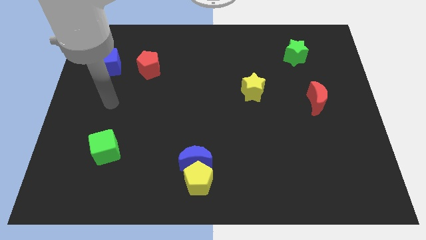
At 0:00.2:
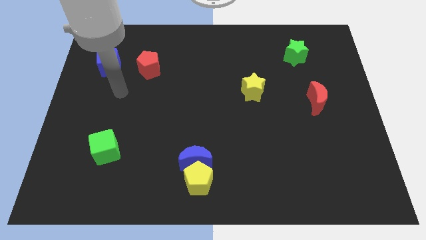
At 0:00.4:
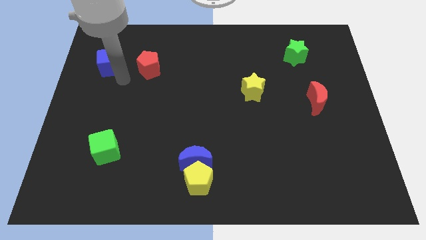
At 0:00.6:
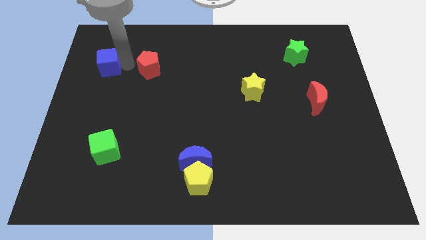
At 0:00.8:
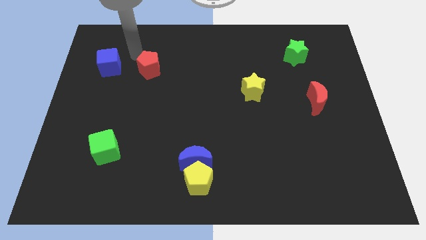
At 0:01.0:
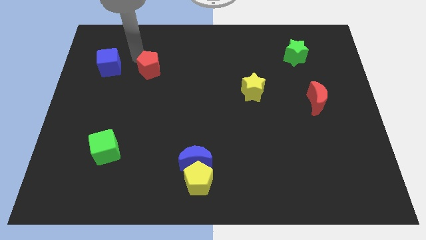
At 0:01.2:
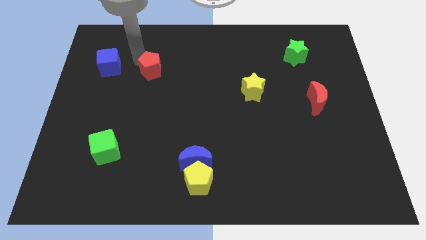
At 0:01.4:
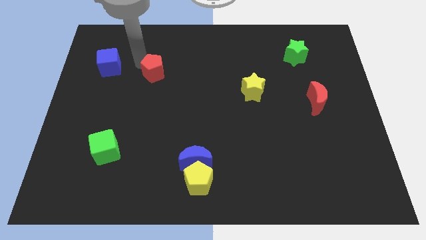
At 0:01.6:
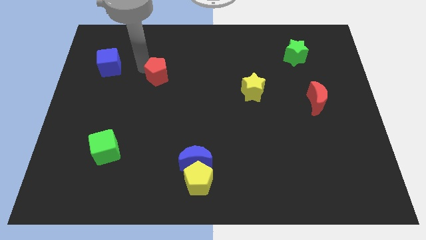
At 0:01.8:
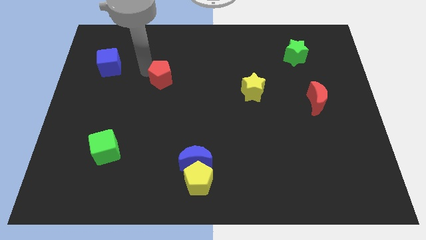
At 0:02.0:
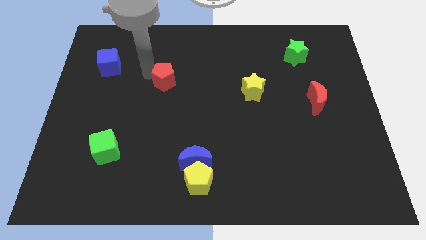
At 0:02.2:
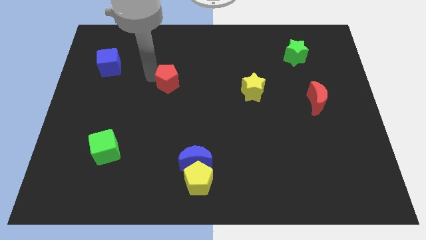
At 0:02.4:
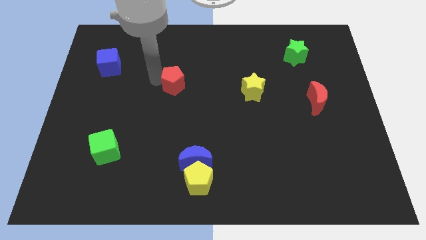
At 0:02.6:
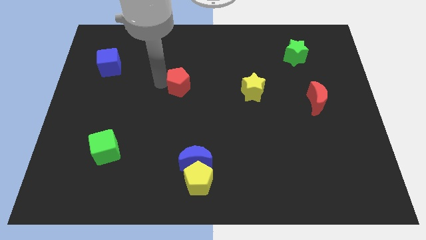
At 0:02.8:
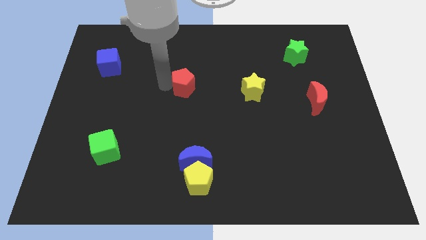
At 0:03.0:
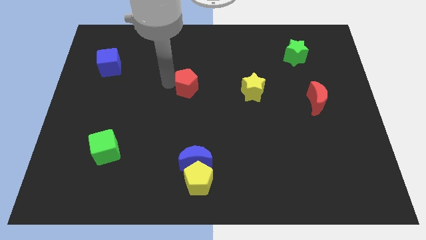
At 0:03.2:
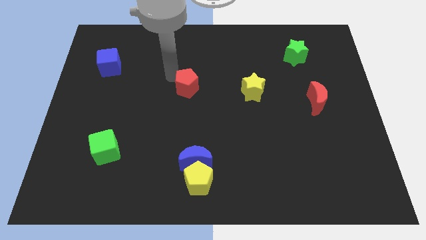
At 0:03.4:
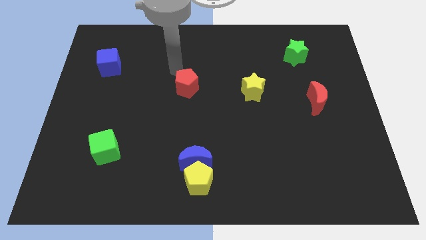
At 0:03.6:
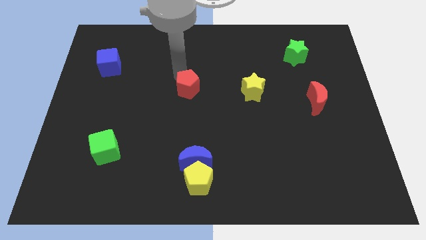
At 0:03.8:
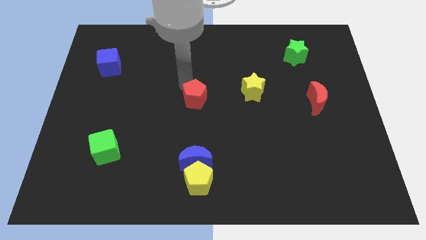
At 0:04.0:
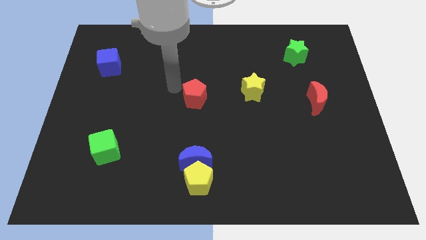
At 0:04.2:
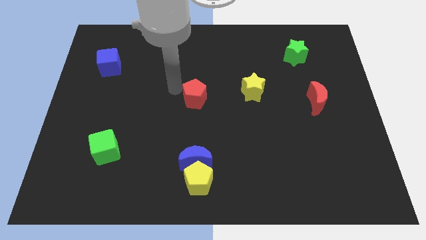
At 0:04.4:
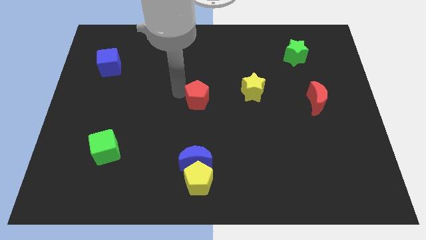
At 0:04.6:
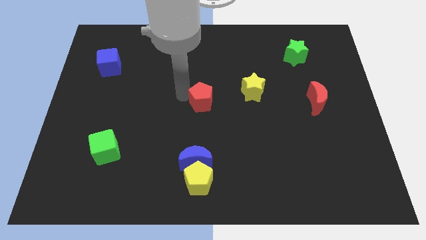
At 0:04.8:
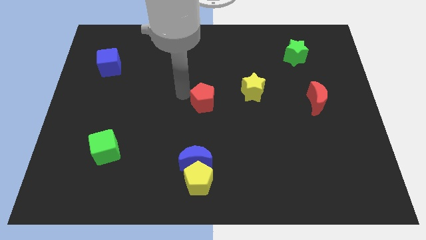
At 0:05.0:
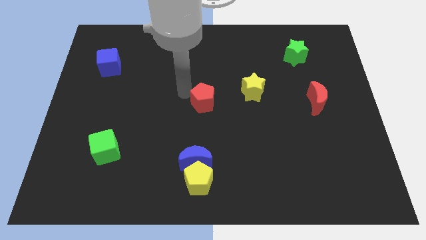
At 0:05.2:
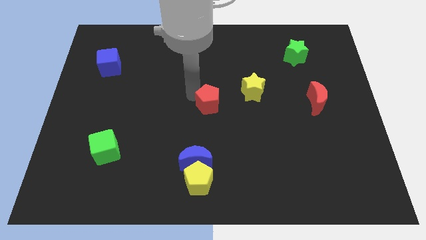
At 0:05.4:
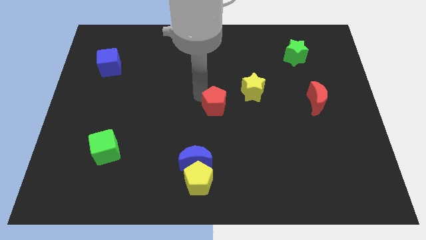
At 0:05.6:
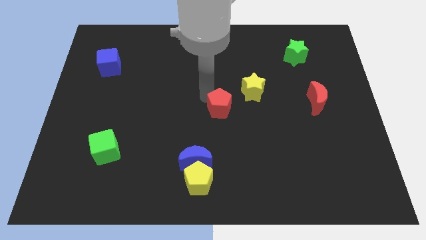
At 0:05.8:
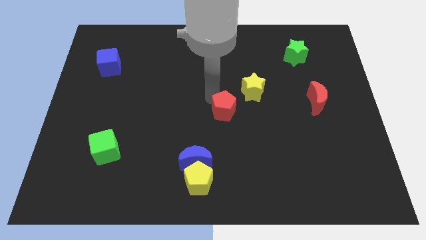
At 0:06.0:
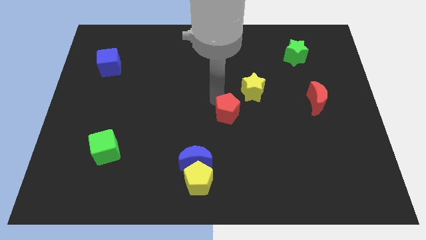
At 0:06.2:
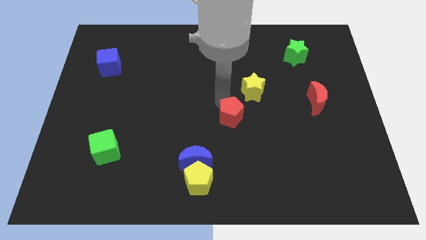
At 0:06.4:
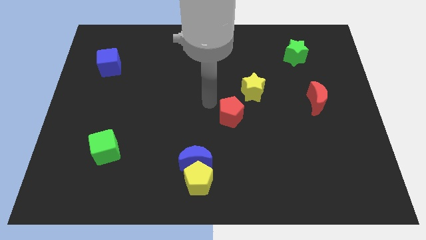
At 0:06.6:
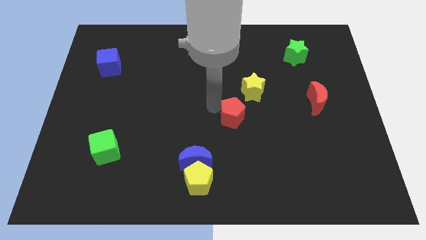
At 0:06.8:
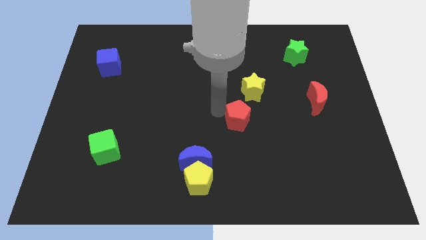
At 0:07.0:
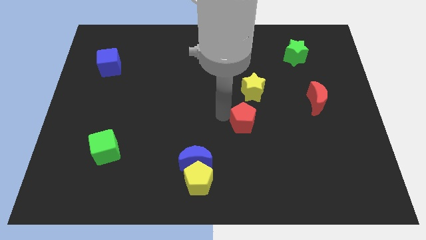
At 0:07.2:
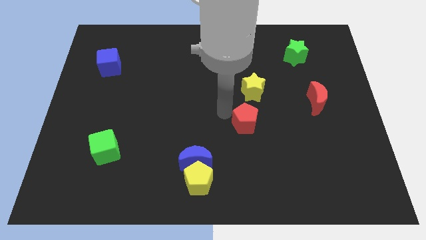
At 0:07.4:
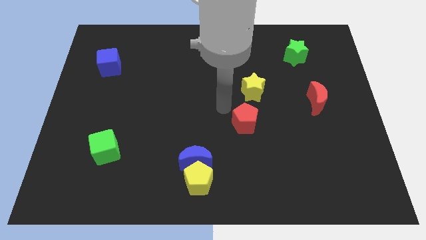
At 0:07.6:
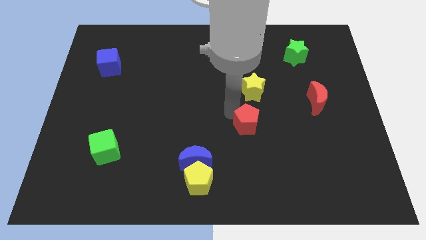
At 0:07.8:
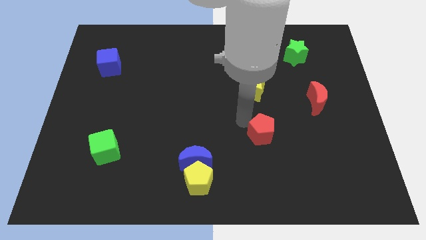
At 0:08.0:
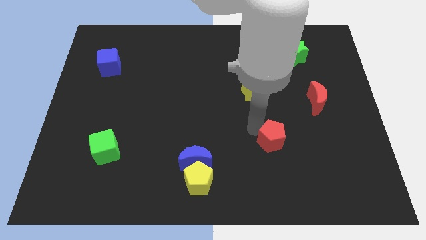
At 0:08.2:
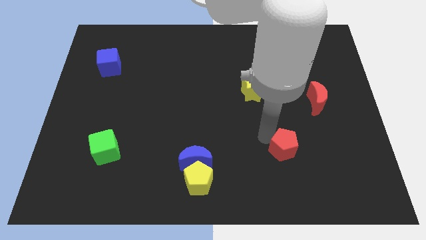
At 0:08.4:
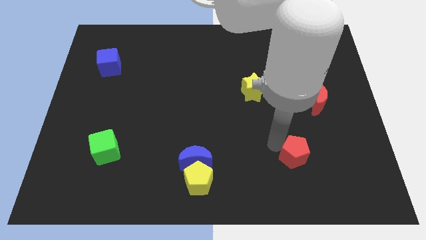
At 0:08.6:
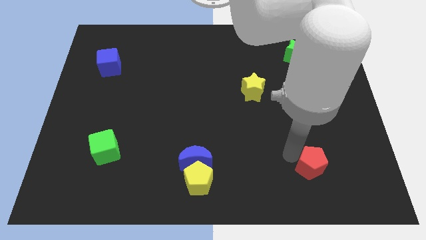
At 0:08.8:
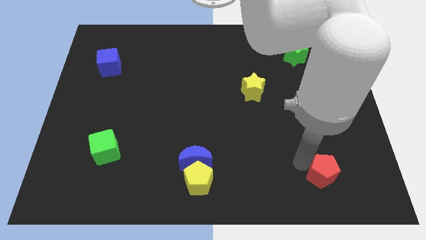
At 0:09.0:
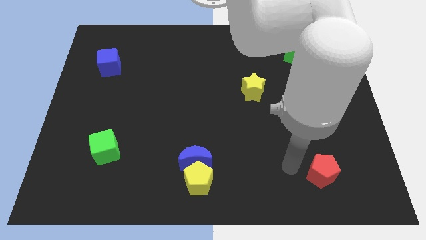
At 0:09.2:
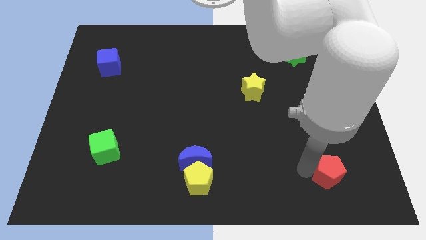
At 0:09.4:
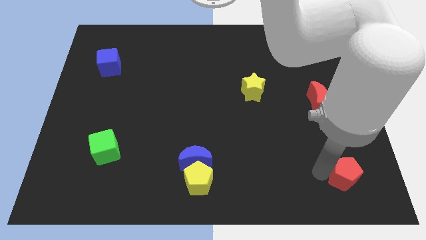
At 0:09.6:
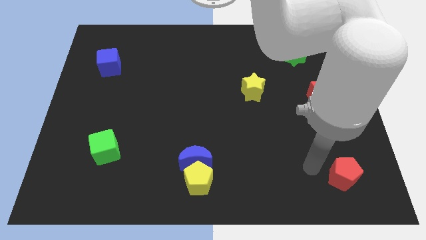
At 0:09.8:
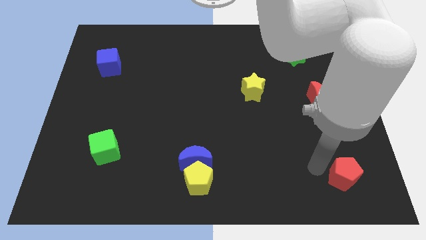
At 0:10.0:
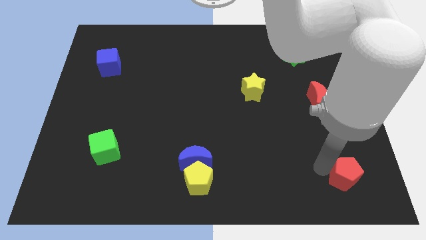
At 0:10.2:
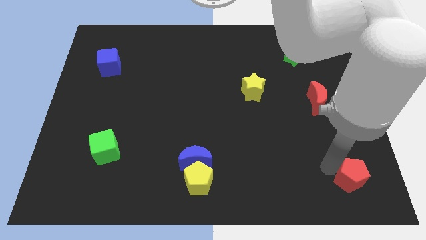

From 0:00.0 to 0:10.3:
put the red pentagon to the lower right corner

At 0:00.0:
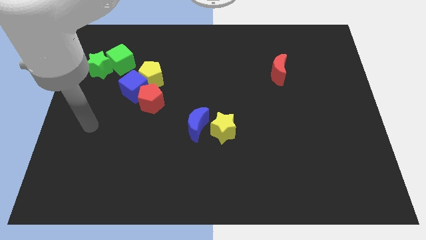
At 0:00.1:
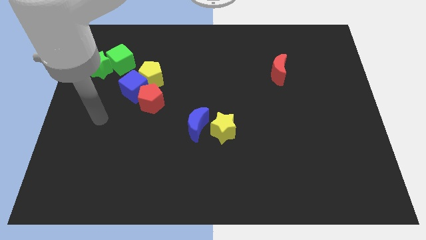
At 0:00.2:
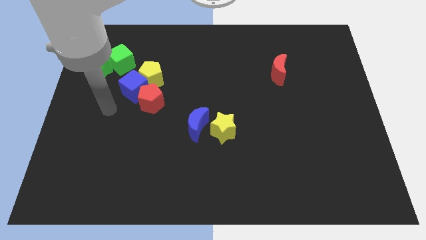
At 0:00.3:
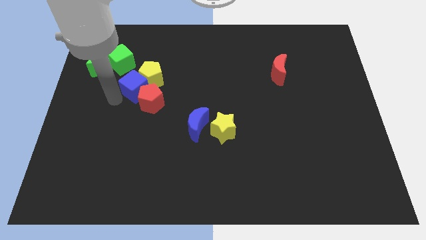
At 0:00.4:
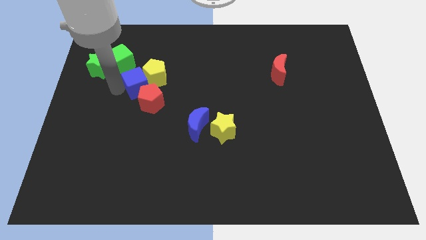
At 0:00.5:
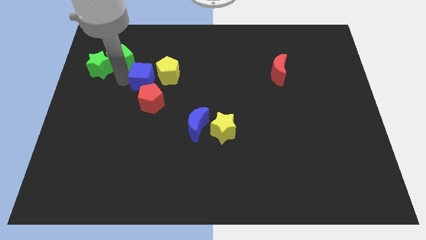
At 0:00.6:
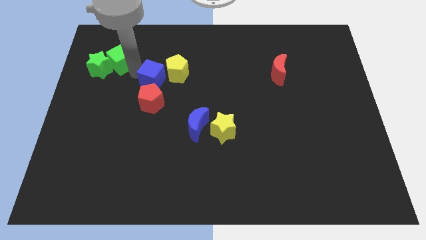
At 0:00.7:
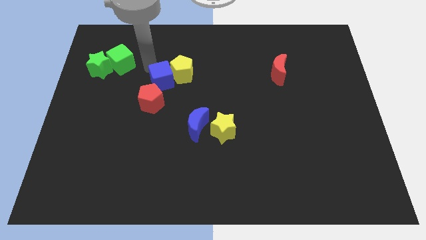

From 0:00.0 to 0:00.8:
move the yellow pentagon to the center of the board
